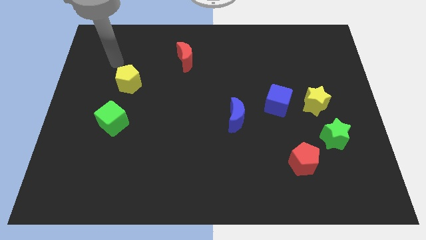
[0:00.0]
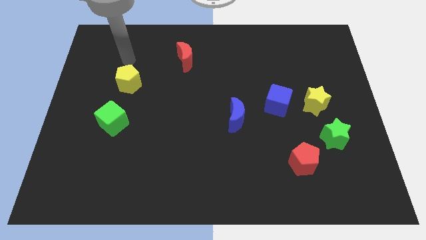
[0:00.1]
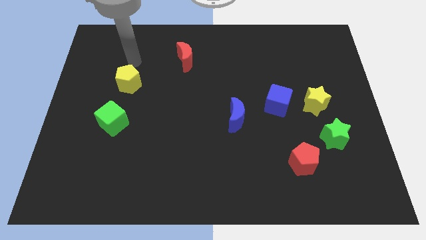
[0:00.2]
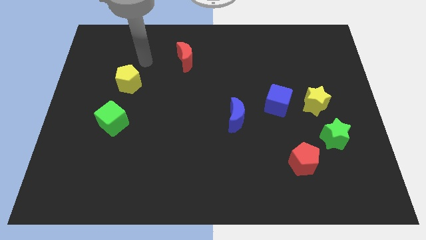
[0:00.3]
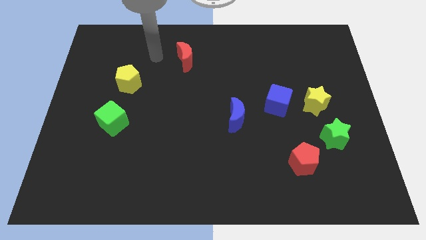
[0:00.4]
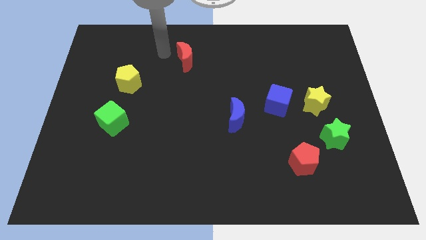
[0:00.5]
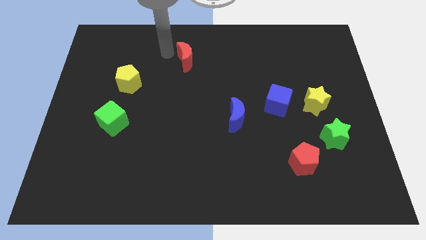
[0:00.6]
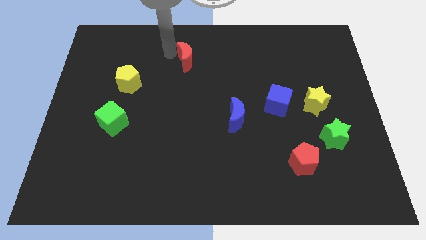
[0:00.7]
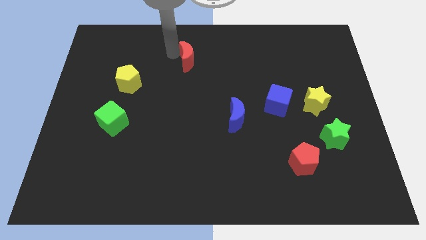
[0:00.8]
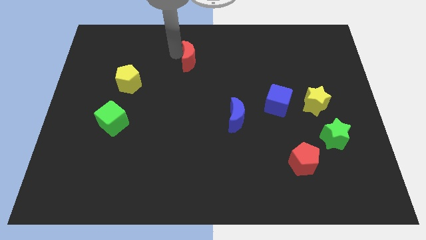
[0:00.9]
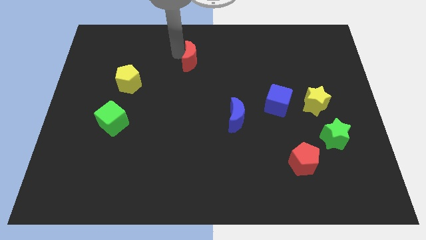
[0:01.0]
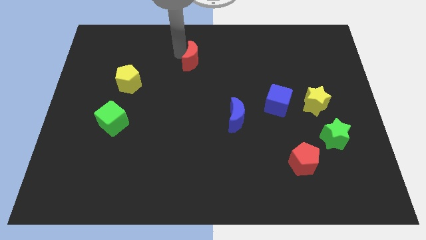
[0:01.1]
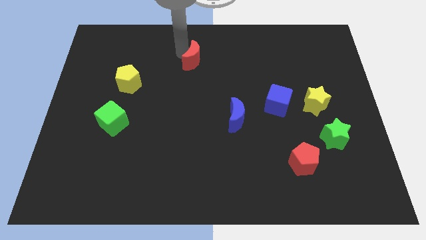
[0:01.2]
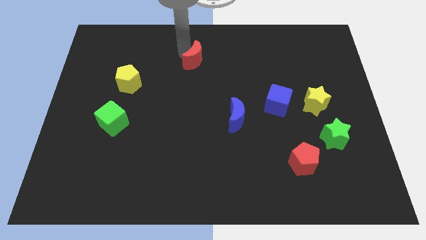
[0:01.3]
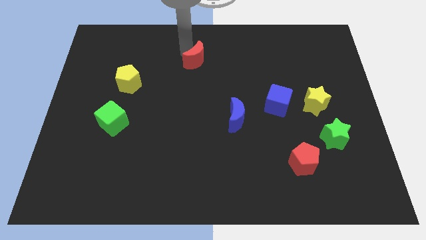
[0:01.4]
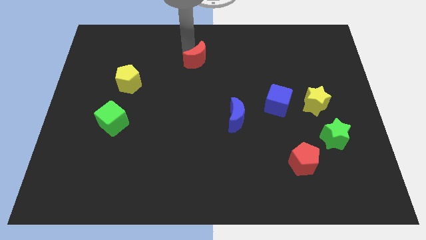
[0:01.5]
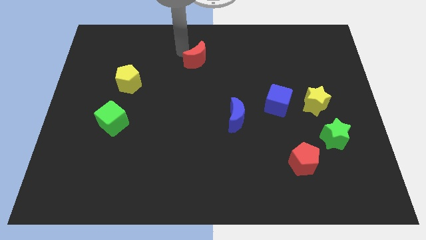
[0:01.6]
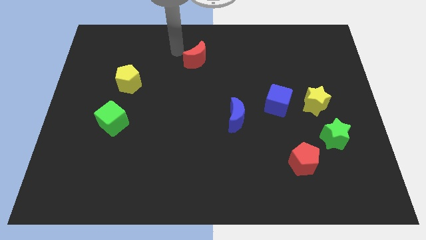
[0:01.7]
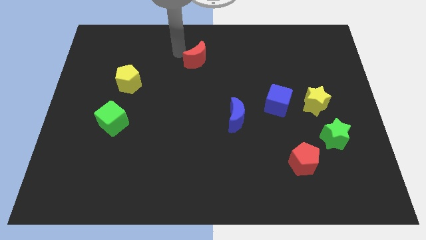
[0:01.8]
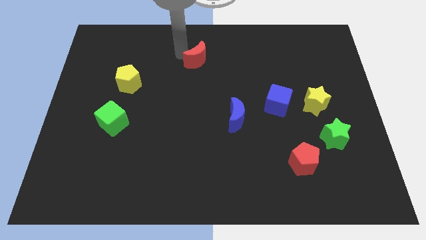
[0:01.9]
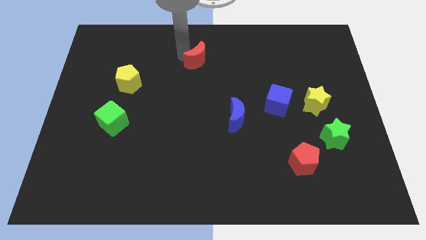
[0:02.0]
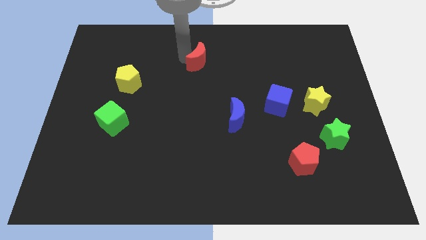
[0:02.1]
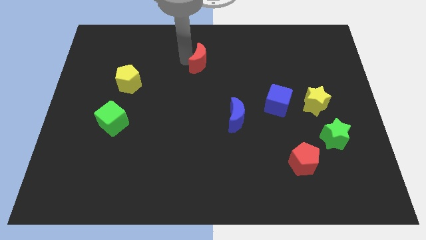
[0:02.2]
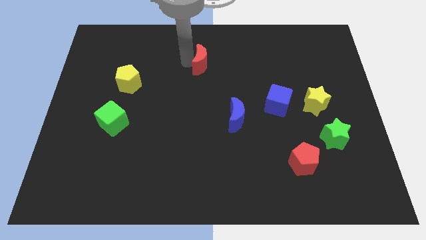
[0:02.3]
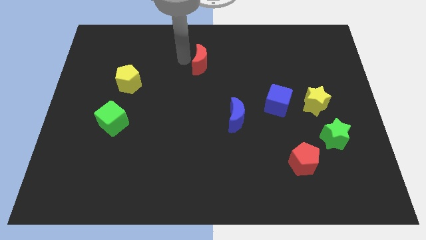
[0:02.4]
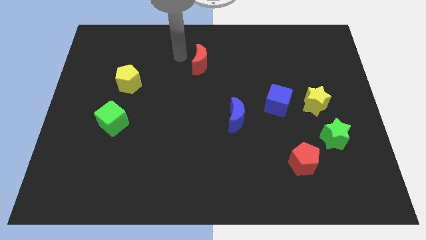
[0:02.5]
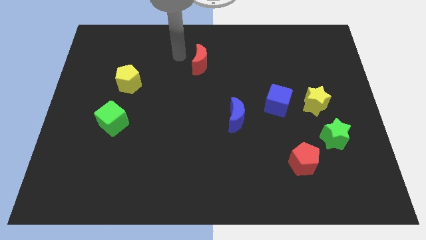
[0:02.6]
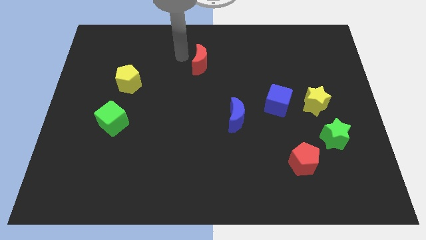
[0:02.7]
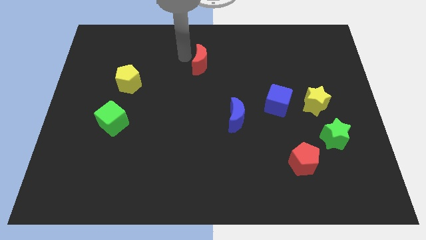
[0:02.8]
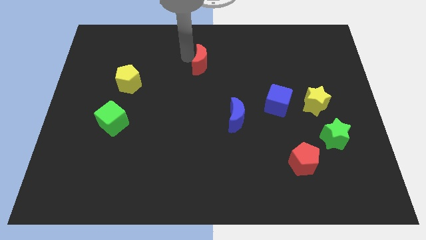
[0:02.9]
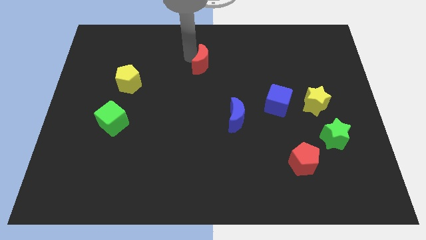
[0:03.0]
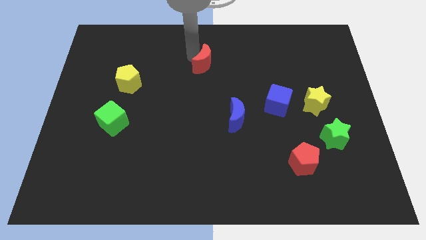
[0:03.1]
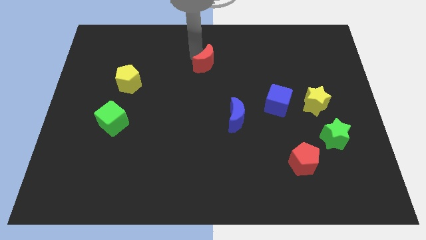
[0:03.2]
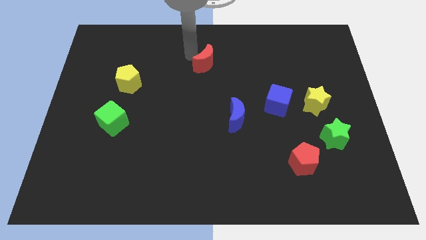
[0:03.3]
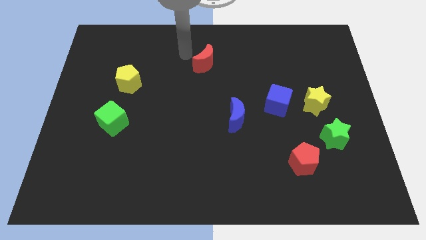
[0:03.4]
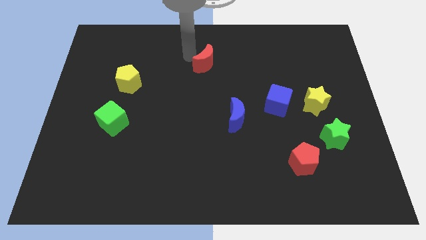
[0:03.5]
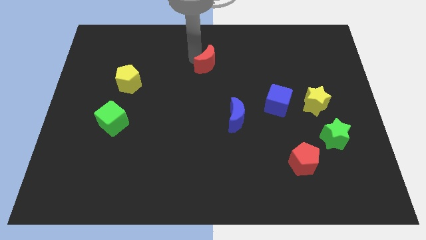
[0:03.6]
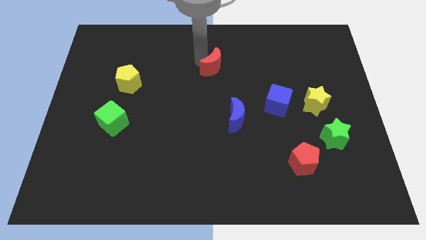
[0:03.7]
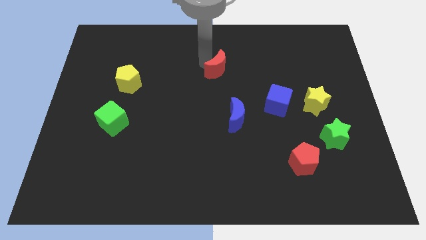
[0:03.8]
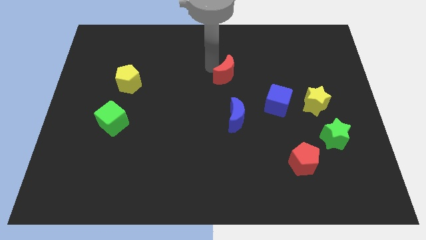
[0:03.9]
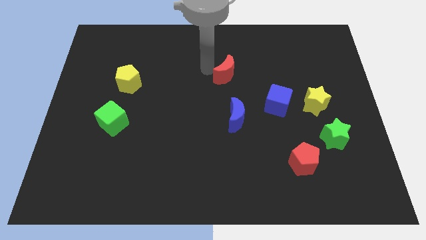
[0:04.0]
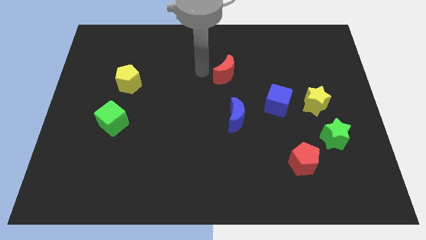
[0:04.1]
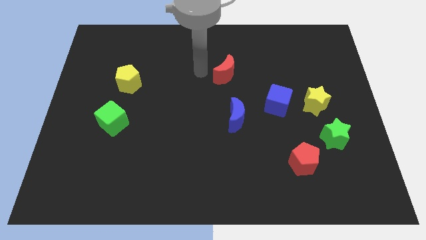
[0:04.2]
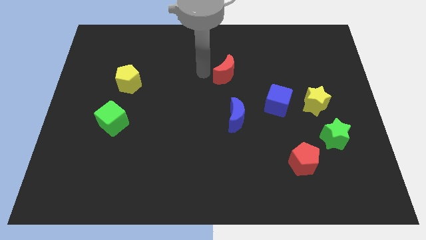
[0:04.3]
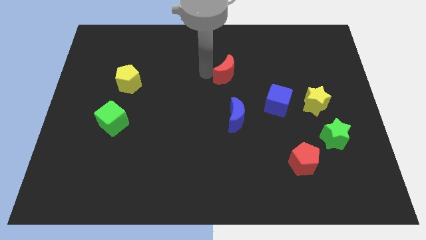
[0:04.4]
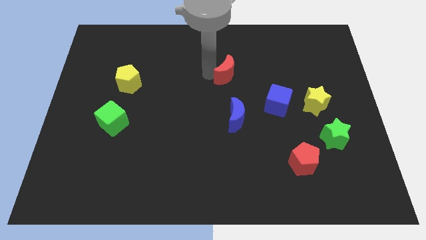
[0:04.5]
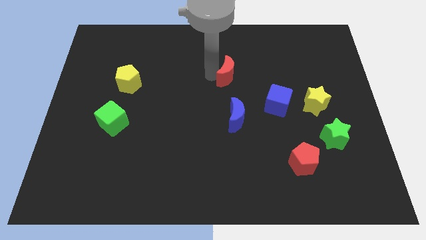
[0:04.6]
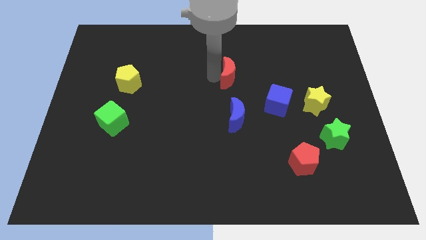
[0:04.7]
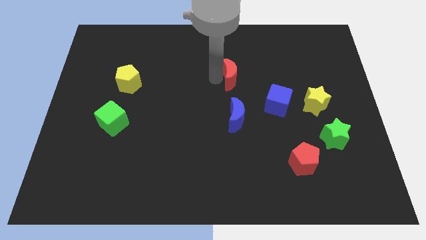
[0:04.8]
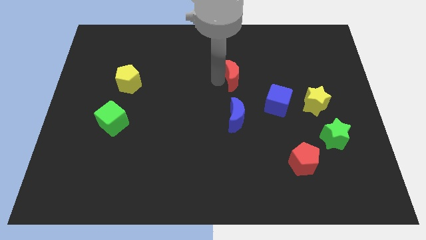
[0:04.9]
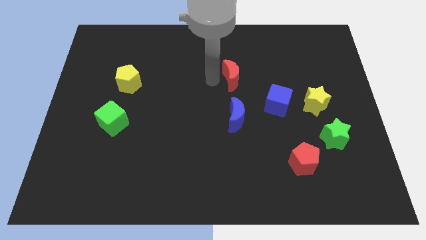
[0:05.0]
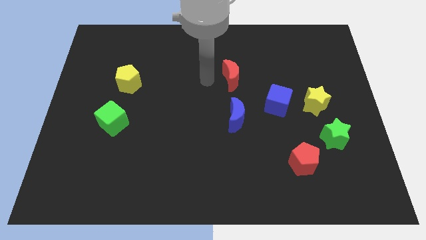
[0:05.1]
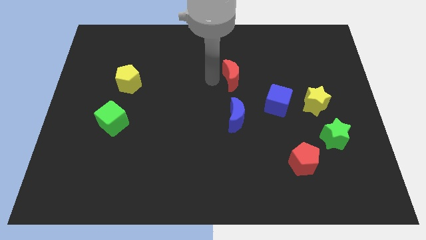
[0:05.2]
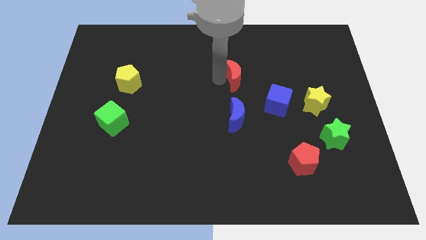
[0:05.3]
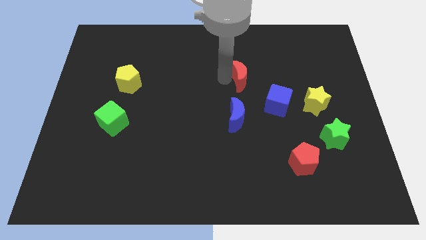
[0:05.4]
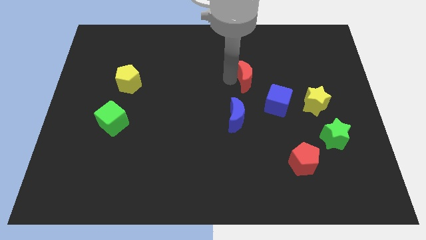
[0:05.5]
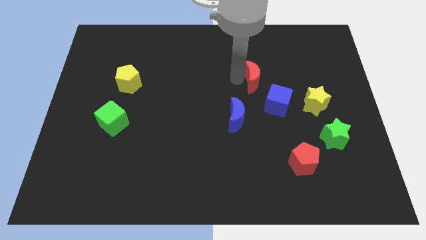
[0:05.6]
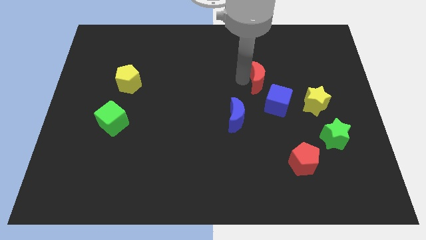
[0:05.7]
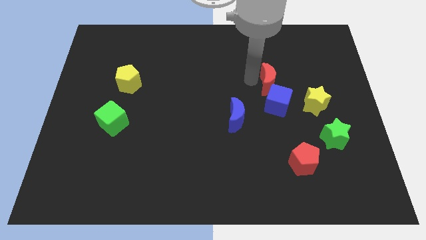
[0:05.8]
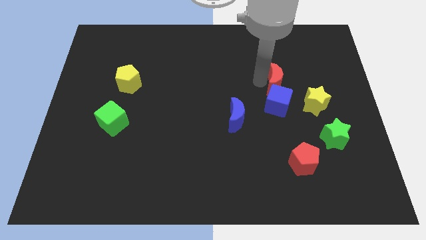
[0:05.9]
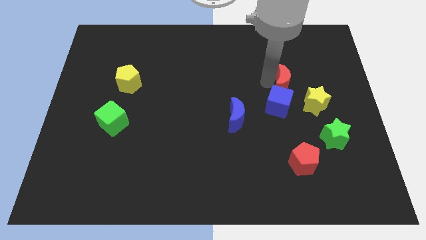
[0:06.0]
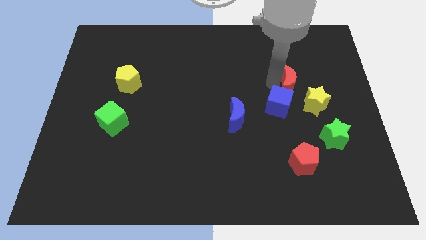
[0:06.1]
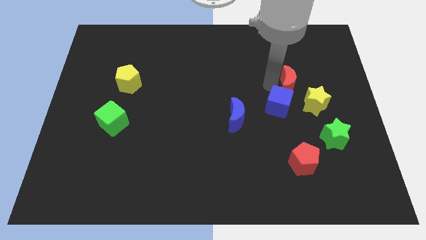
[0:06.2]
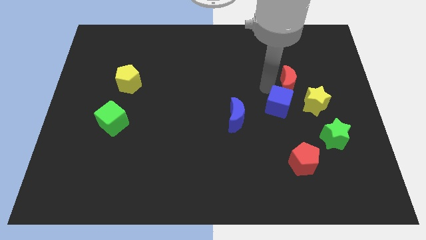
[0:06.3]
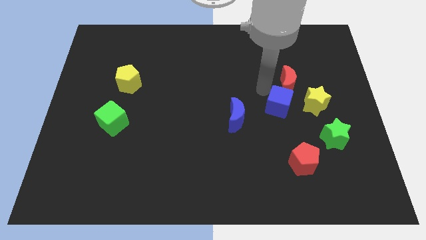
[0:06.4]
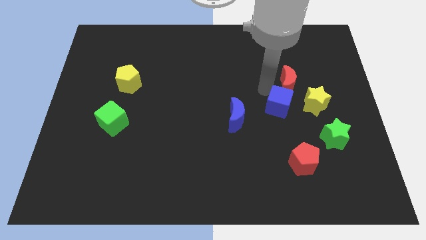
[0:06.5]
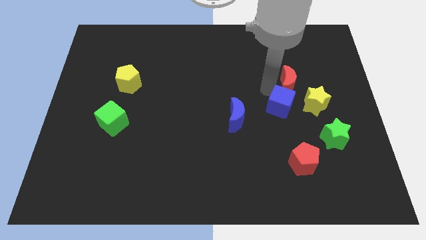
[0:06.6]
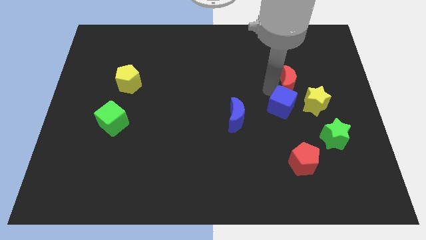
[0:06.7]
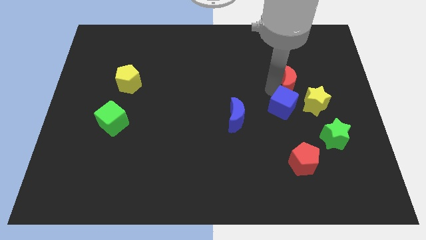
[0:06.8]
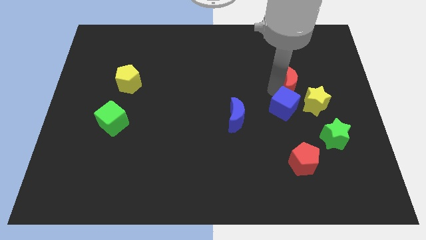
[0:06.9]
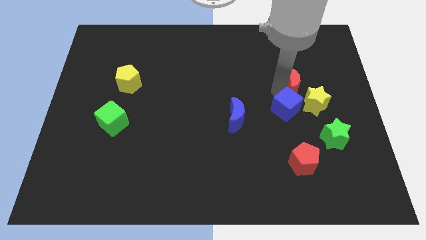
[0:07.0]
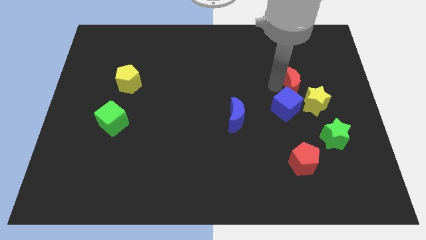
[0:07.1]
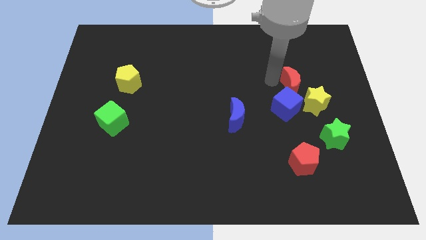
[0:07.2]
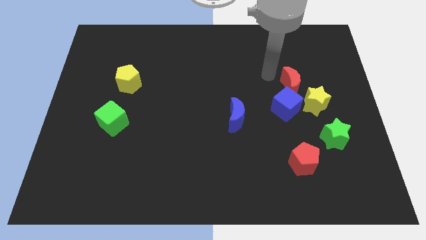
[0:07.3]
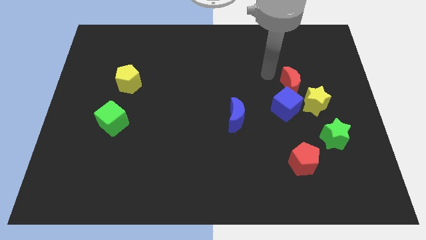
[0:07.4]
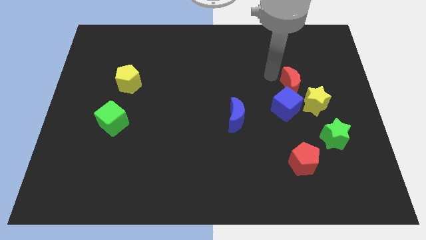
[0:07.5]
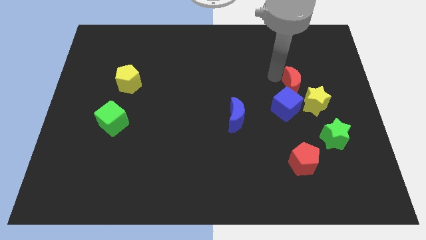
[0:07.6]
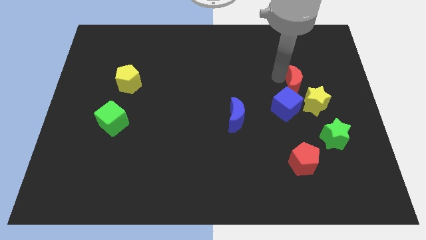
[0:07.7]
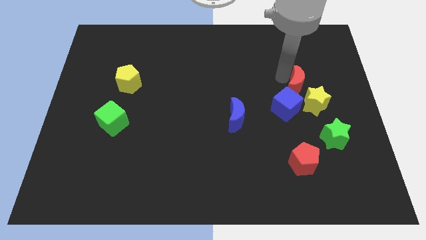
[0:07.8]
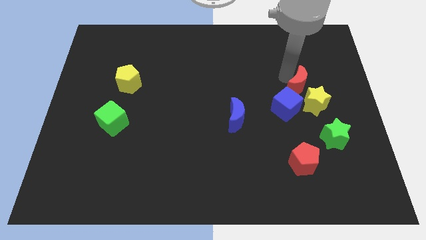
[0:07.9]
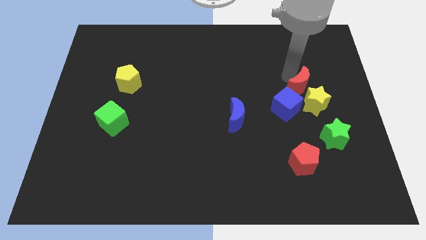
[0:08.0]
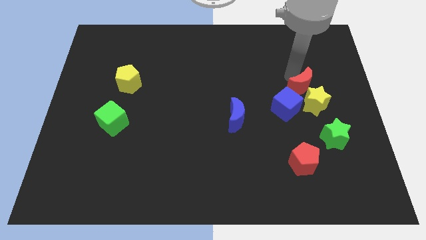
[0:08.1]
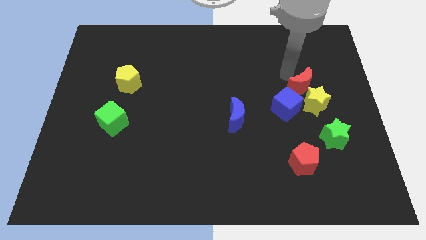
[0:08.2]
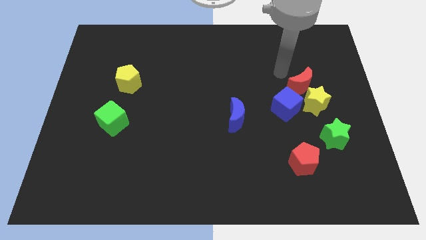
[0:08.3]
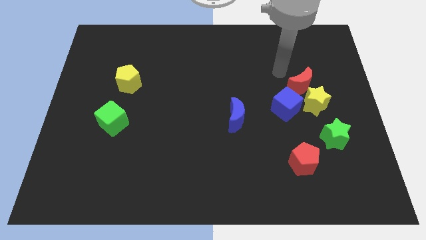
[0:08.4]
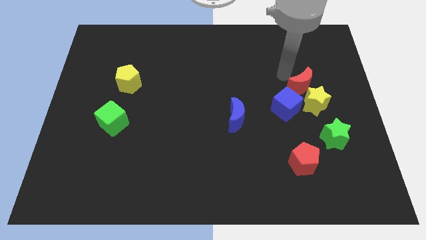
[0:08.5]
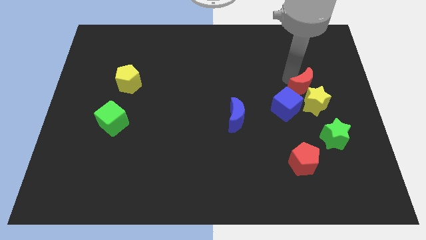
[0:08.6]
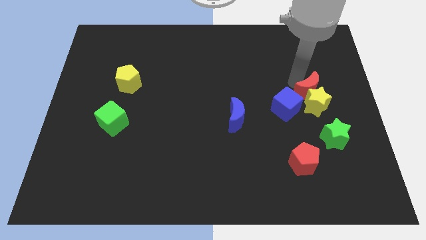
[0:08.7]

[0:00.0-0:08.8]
move the red moon to the top side of the green star
